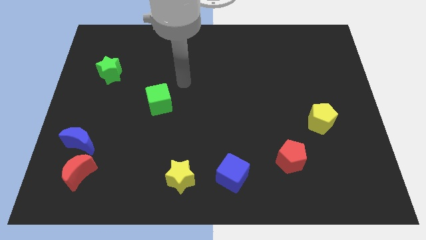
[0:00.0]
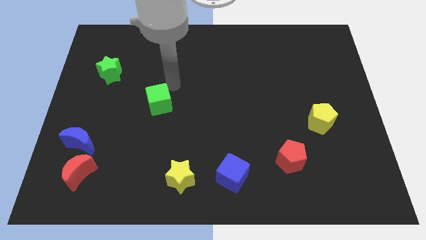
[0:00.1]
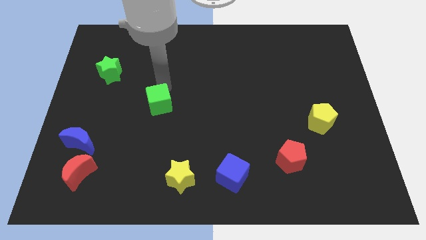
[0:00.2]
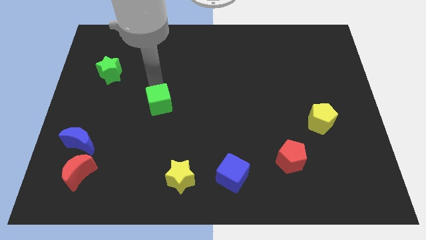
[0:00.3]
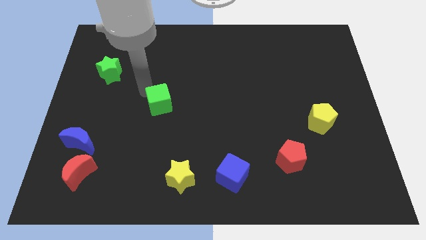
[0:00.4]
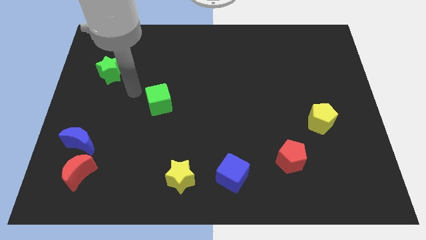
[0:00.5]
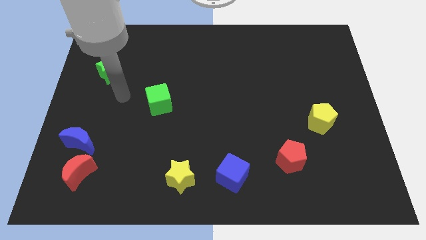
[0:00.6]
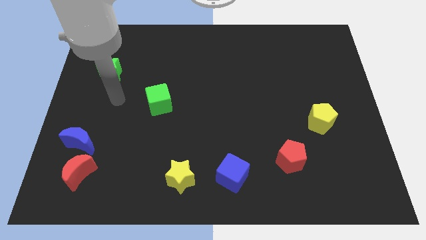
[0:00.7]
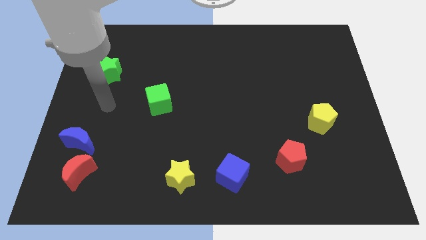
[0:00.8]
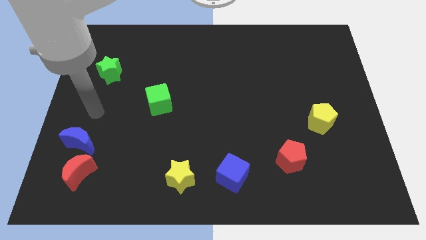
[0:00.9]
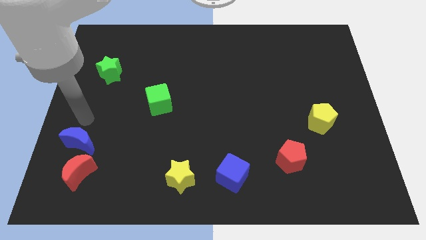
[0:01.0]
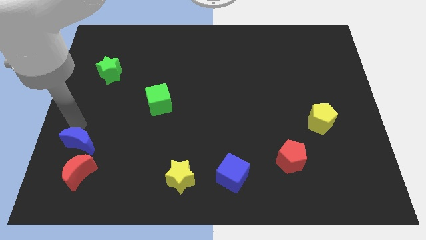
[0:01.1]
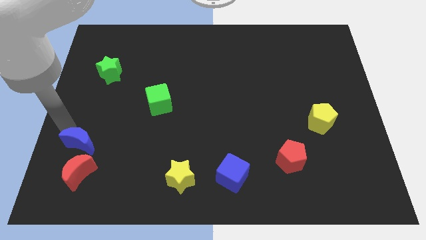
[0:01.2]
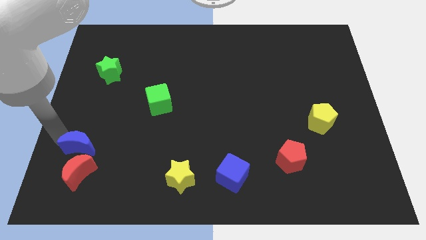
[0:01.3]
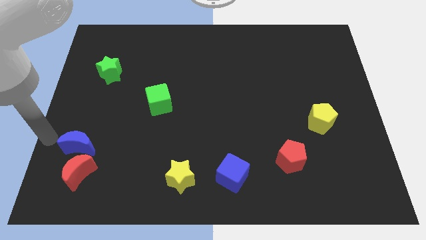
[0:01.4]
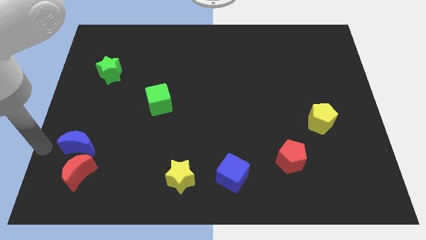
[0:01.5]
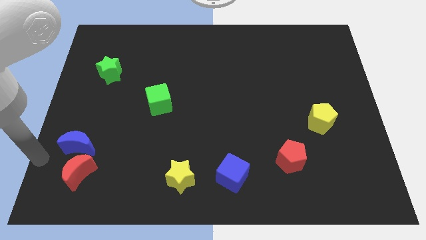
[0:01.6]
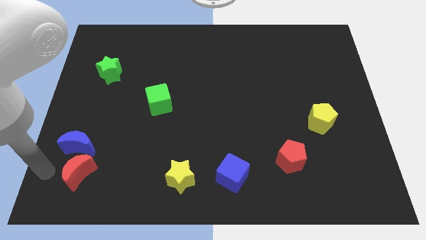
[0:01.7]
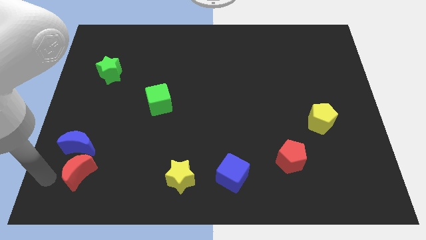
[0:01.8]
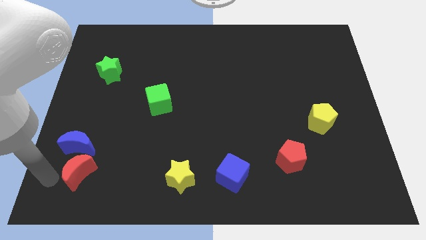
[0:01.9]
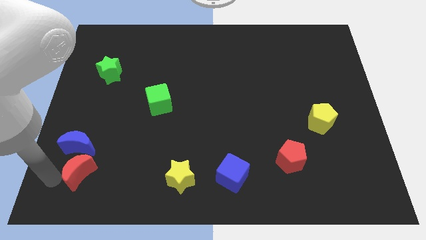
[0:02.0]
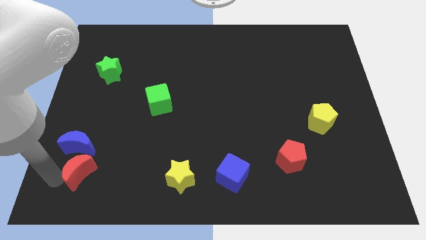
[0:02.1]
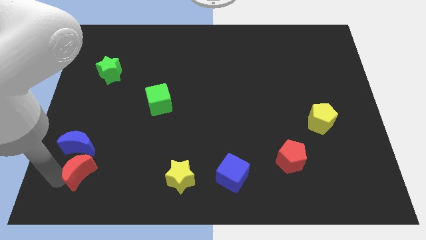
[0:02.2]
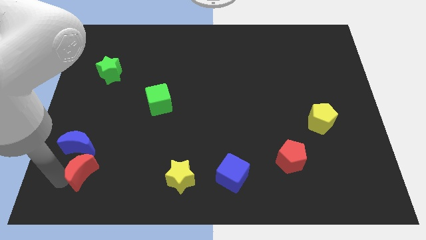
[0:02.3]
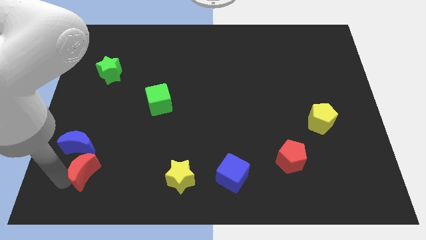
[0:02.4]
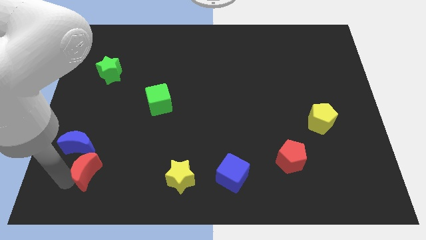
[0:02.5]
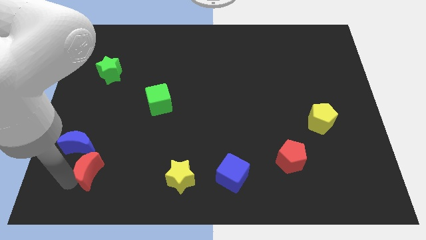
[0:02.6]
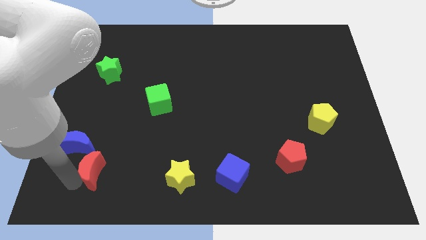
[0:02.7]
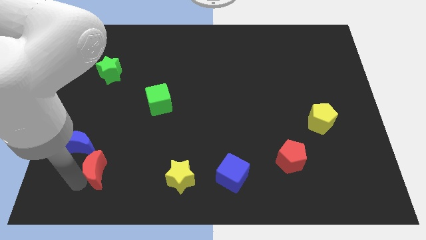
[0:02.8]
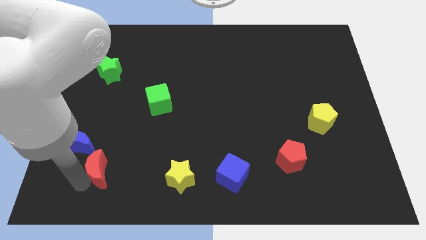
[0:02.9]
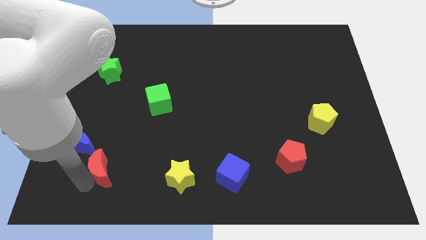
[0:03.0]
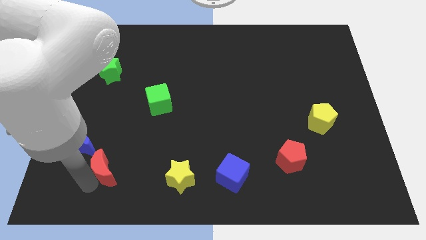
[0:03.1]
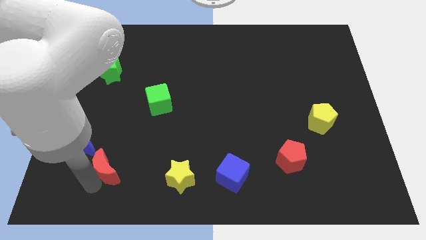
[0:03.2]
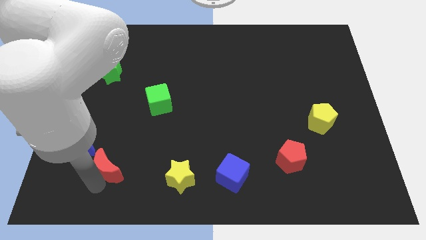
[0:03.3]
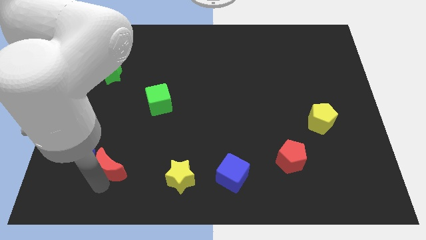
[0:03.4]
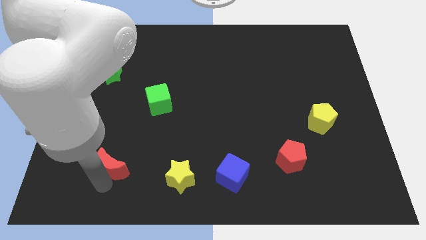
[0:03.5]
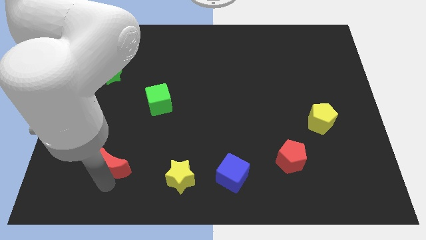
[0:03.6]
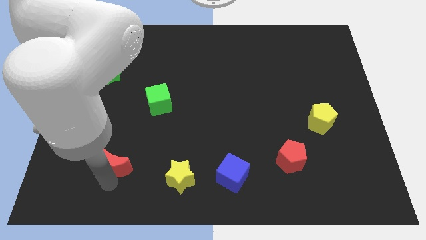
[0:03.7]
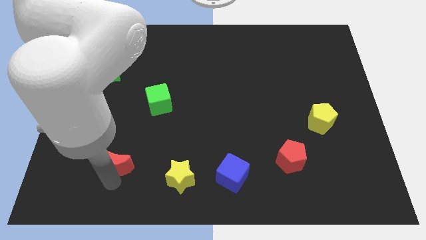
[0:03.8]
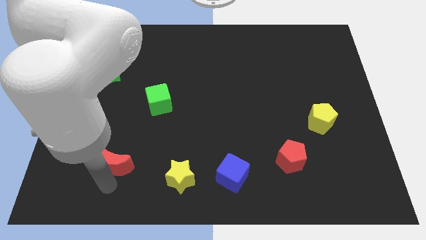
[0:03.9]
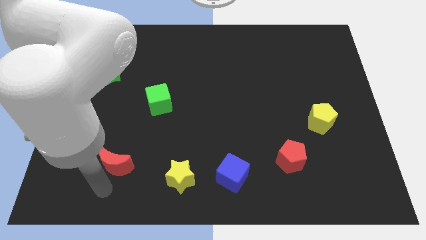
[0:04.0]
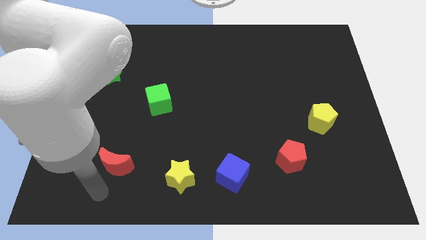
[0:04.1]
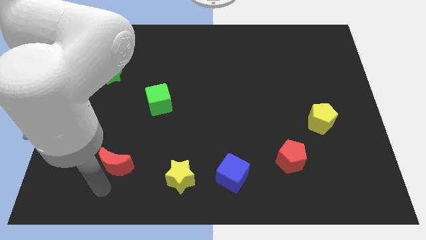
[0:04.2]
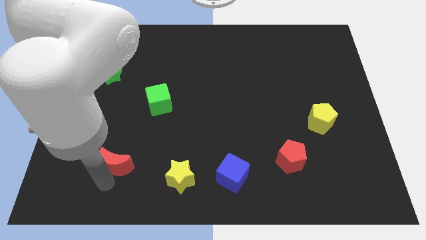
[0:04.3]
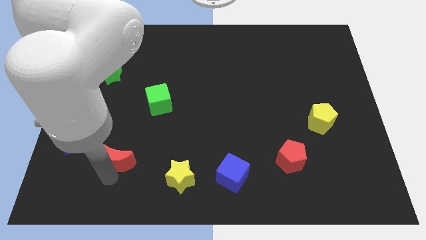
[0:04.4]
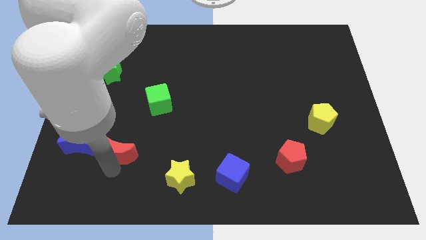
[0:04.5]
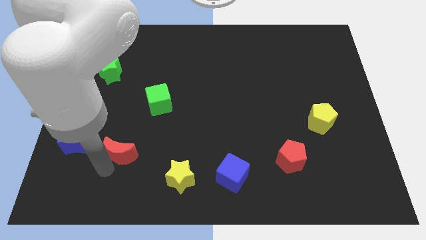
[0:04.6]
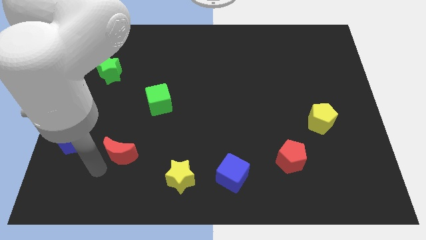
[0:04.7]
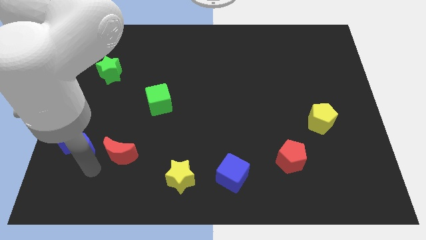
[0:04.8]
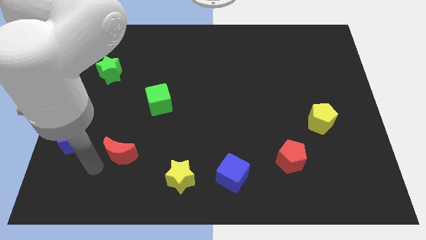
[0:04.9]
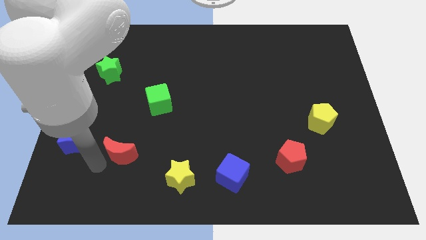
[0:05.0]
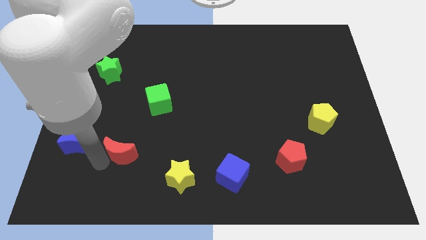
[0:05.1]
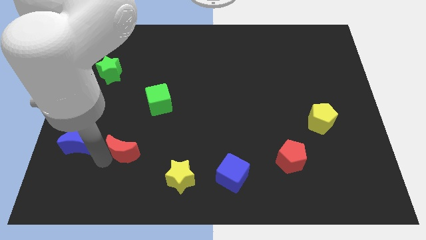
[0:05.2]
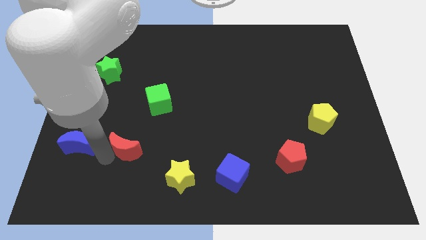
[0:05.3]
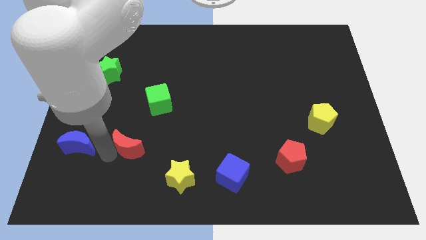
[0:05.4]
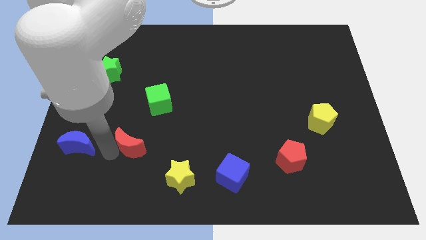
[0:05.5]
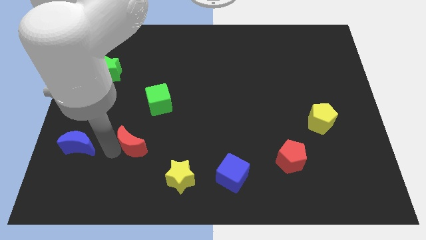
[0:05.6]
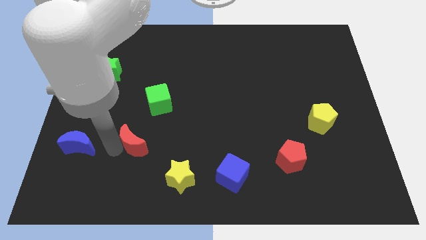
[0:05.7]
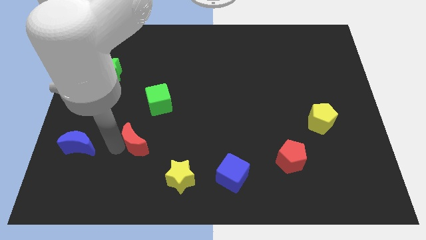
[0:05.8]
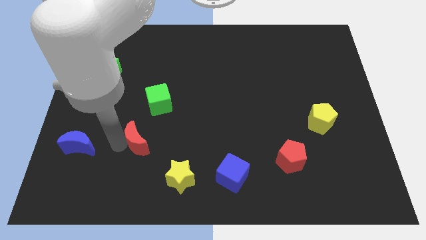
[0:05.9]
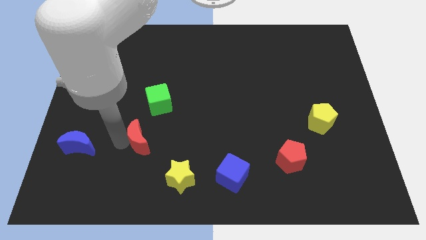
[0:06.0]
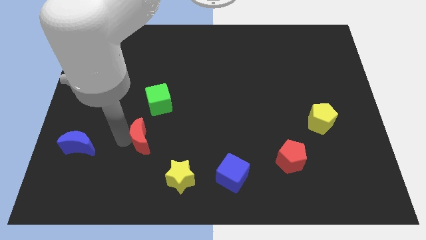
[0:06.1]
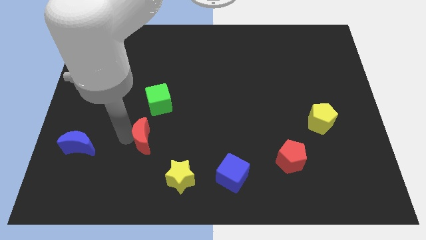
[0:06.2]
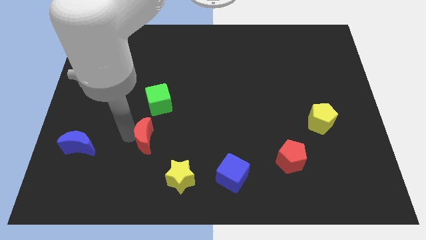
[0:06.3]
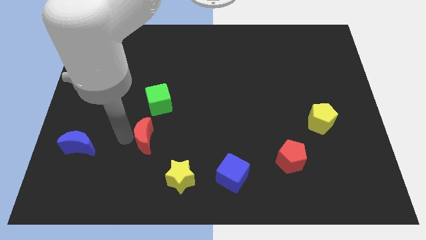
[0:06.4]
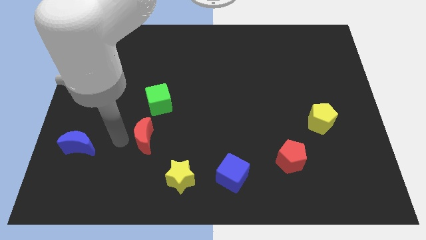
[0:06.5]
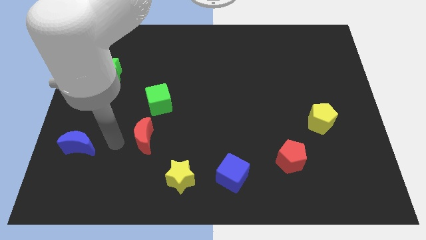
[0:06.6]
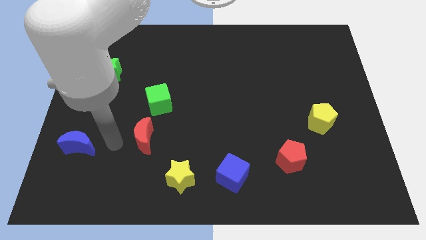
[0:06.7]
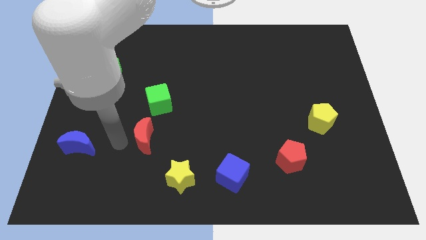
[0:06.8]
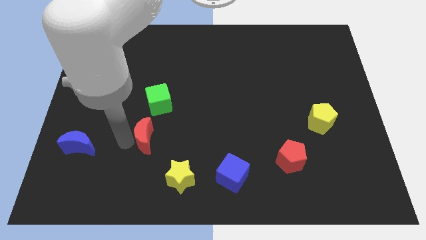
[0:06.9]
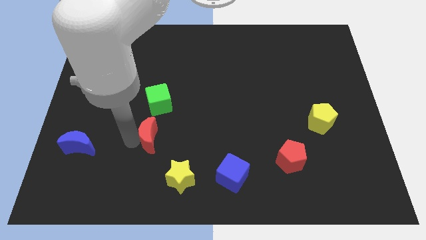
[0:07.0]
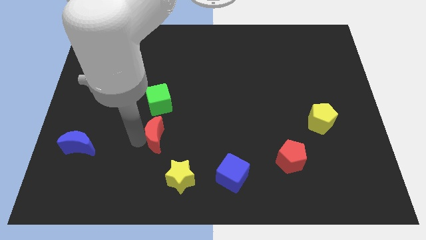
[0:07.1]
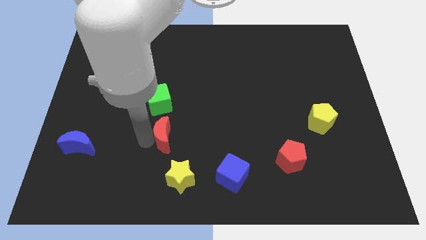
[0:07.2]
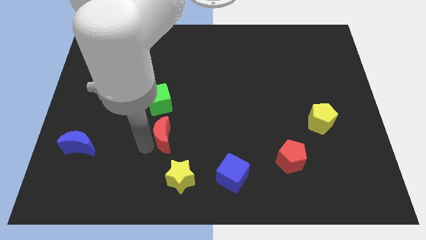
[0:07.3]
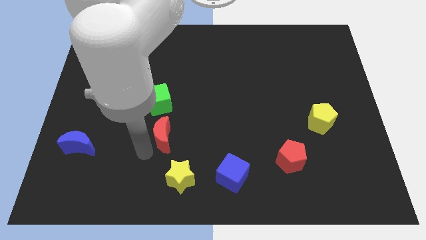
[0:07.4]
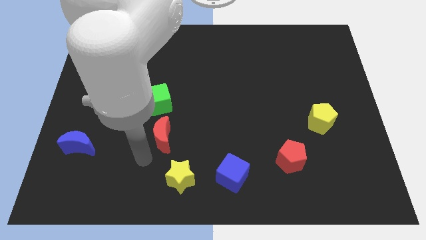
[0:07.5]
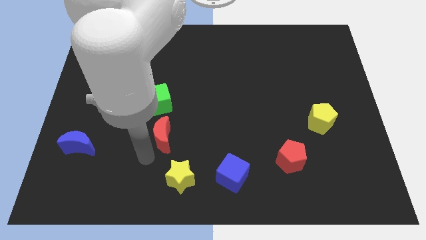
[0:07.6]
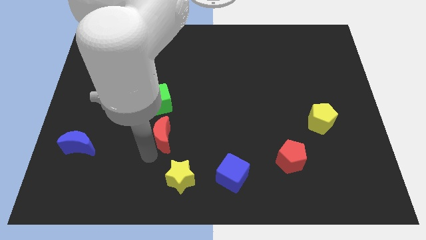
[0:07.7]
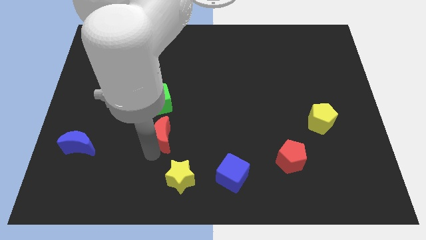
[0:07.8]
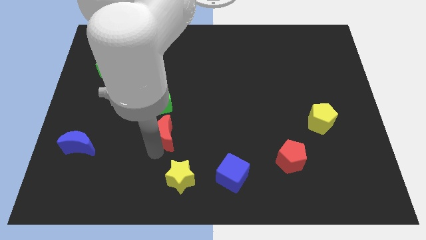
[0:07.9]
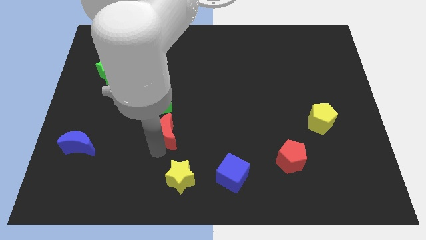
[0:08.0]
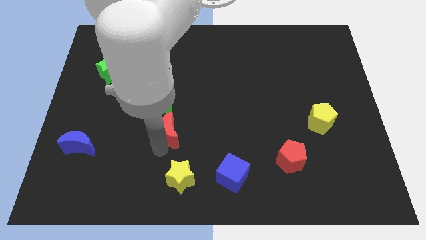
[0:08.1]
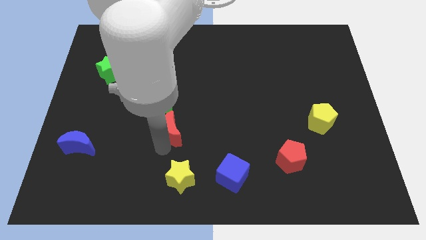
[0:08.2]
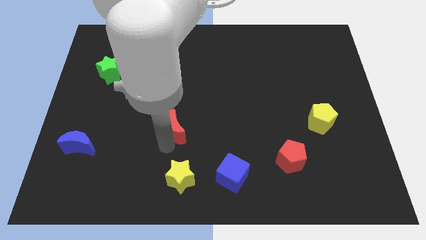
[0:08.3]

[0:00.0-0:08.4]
move the red moon to the center
